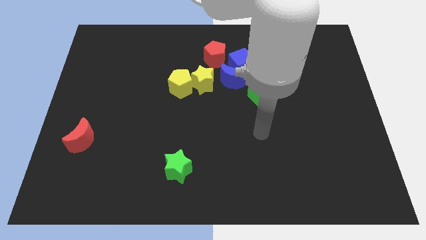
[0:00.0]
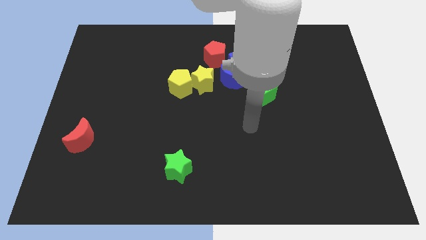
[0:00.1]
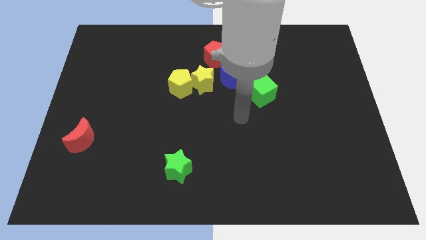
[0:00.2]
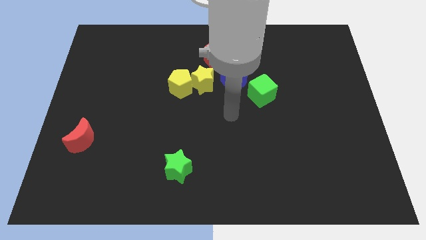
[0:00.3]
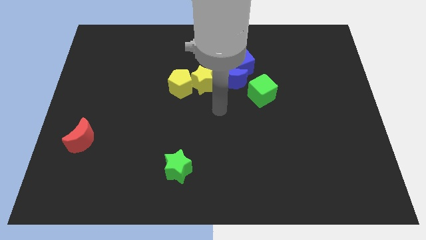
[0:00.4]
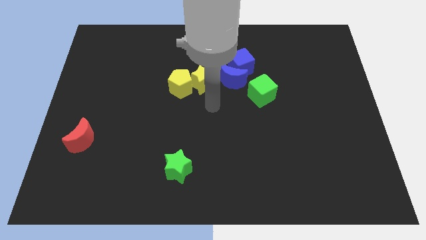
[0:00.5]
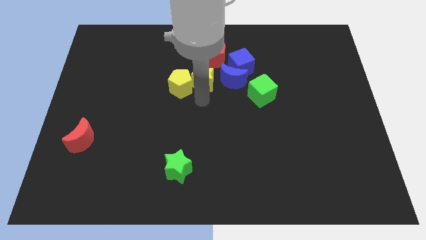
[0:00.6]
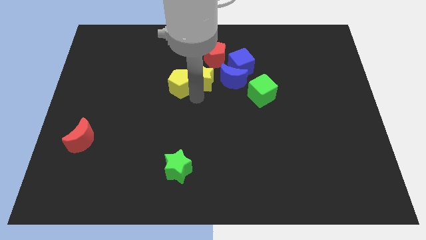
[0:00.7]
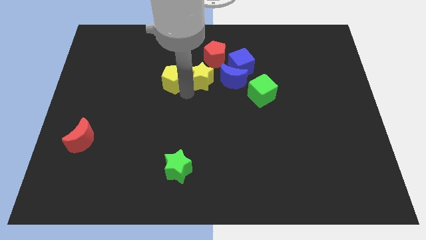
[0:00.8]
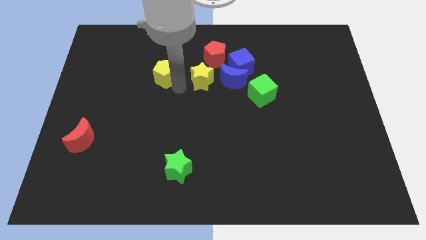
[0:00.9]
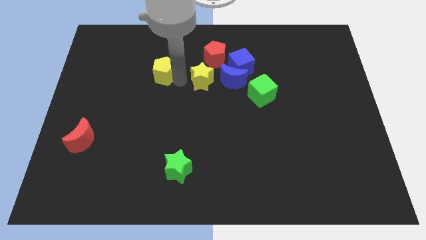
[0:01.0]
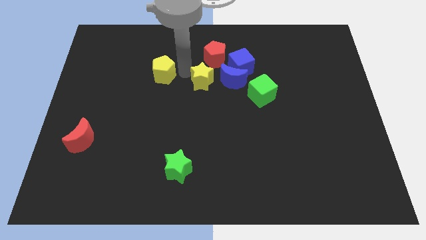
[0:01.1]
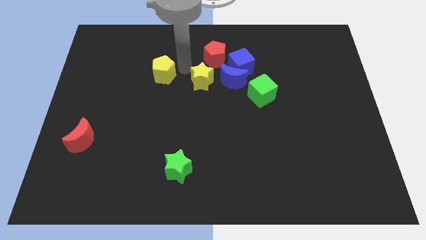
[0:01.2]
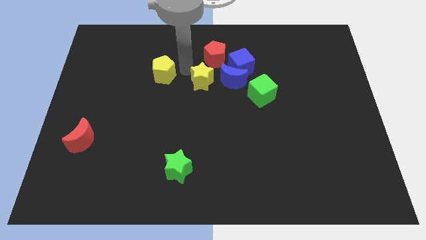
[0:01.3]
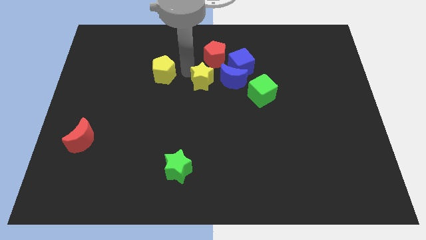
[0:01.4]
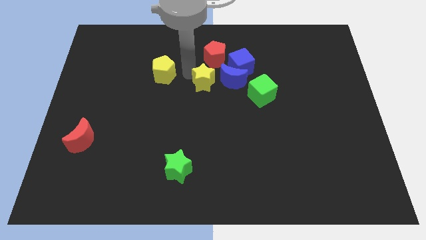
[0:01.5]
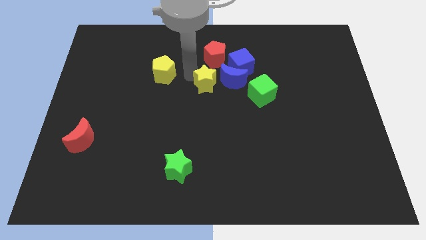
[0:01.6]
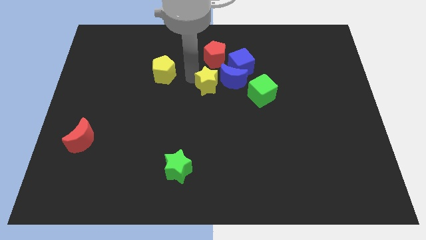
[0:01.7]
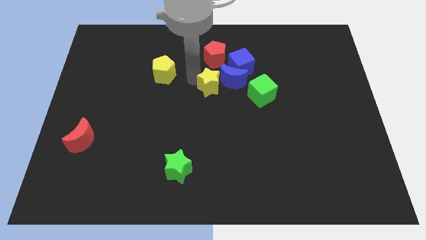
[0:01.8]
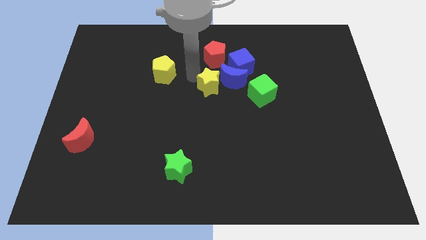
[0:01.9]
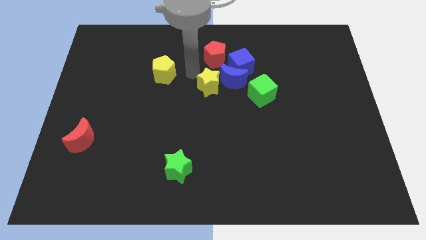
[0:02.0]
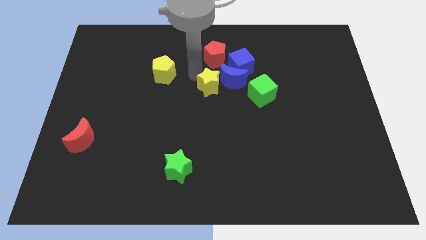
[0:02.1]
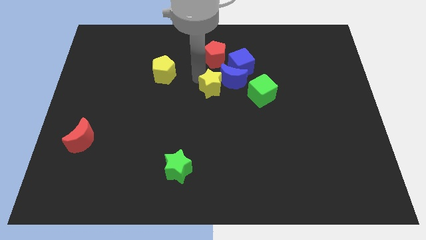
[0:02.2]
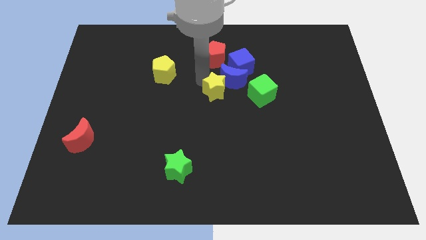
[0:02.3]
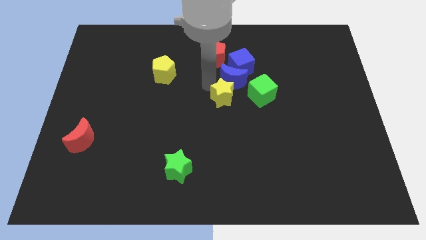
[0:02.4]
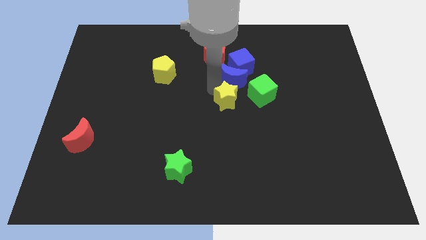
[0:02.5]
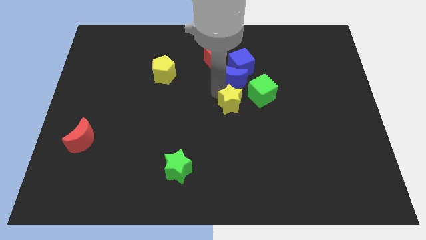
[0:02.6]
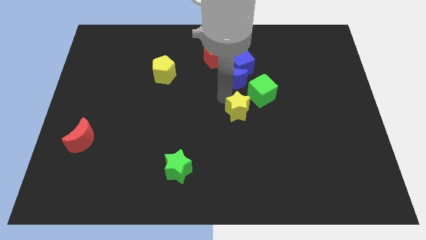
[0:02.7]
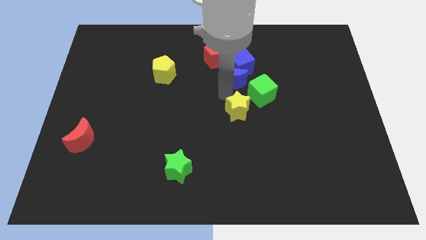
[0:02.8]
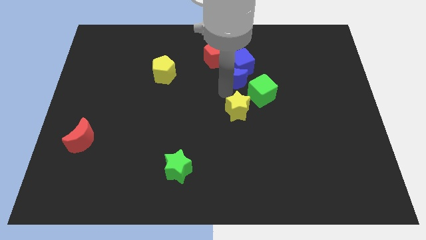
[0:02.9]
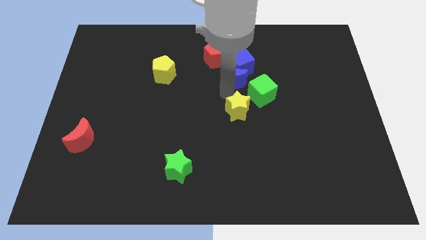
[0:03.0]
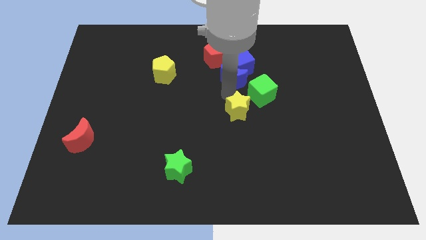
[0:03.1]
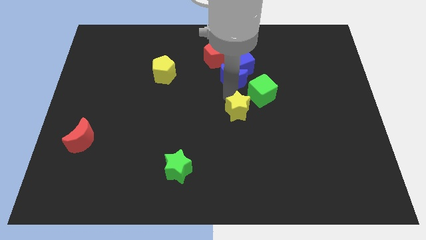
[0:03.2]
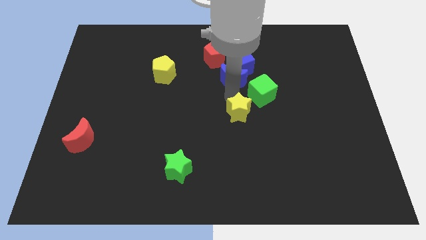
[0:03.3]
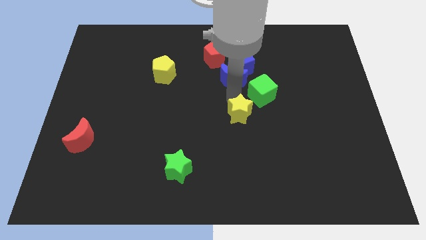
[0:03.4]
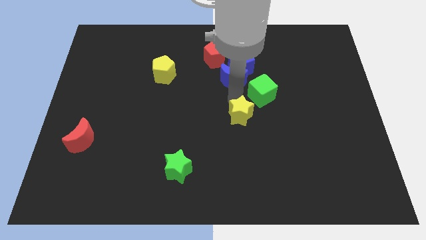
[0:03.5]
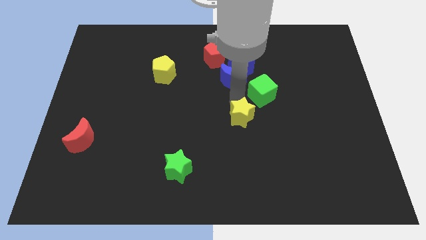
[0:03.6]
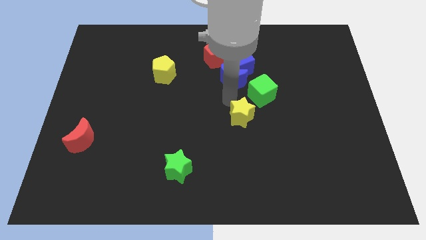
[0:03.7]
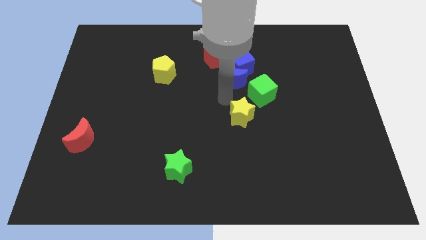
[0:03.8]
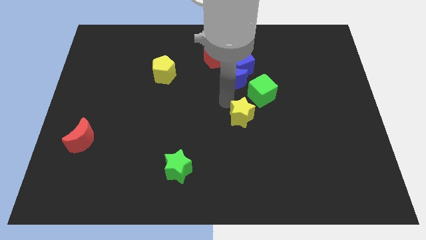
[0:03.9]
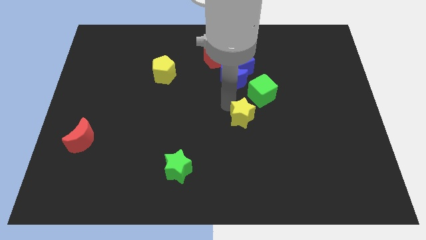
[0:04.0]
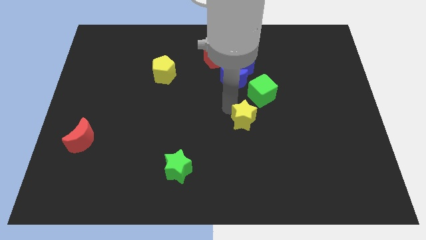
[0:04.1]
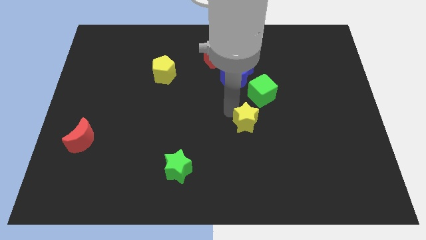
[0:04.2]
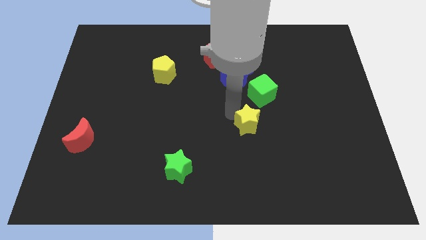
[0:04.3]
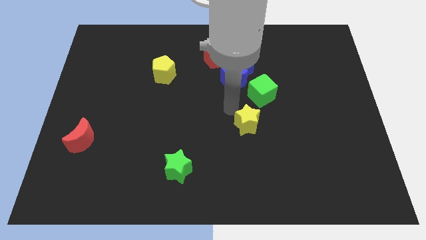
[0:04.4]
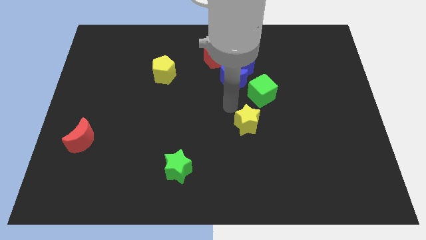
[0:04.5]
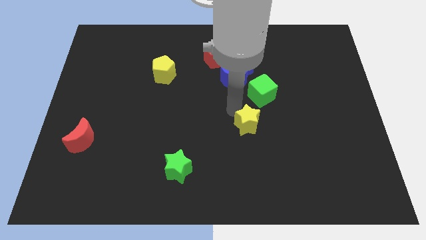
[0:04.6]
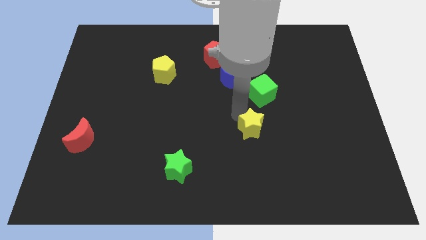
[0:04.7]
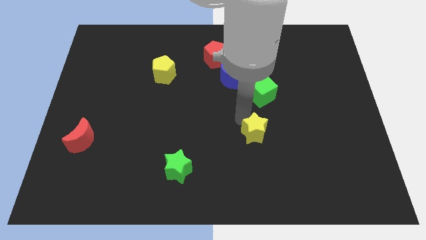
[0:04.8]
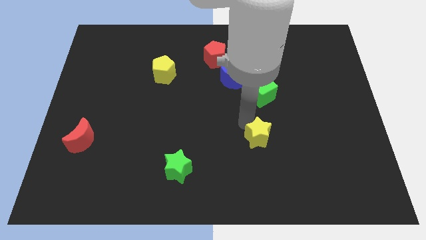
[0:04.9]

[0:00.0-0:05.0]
push the yellow star diagonally down and right

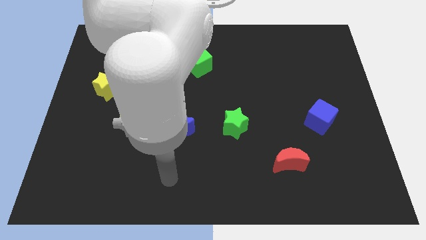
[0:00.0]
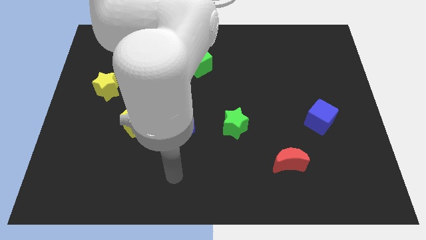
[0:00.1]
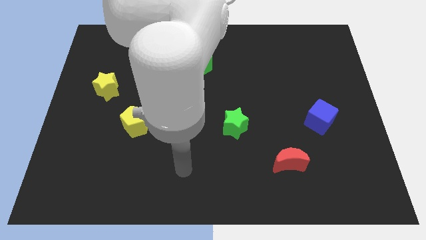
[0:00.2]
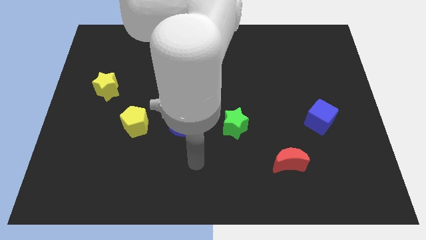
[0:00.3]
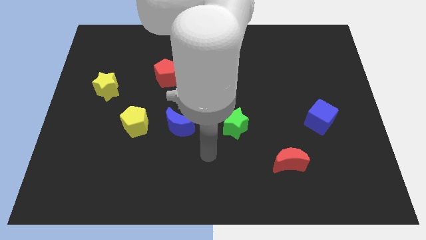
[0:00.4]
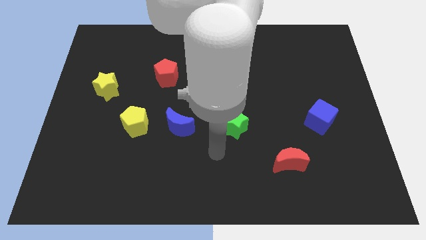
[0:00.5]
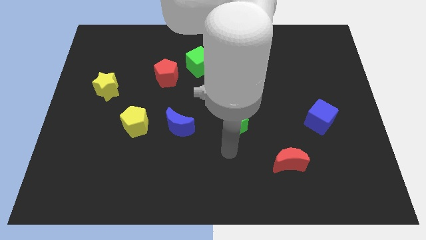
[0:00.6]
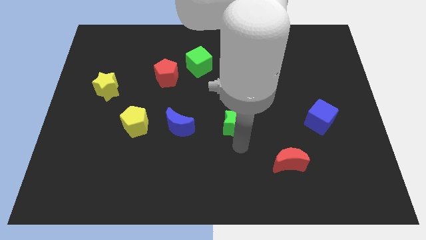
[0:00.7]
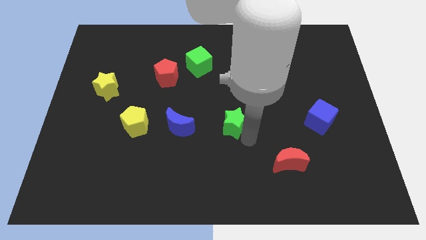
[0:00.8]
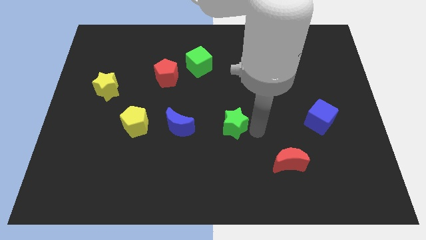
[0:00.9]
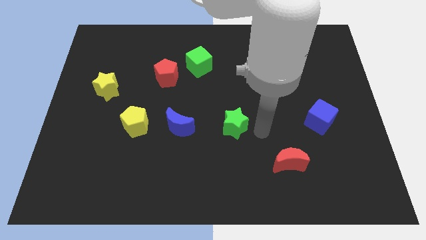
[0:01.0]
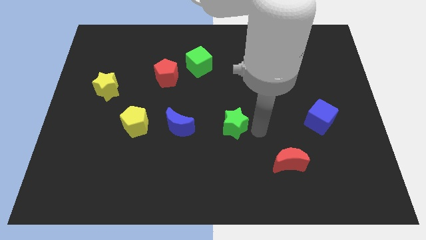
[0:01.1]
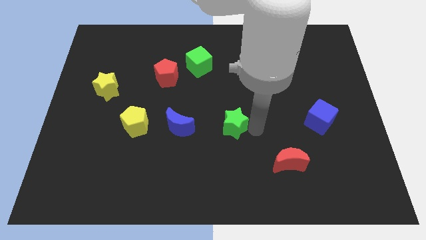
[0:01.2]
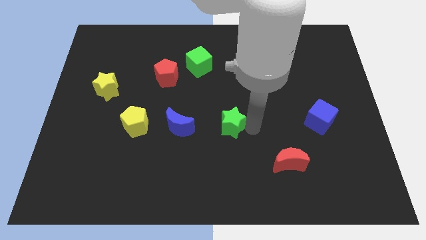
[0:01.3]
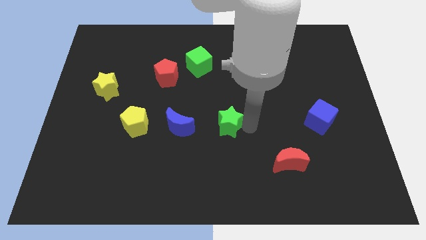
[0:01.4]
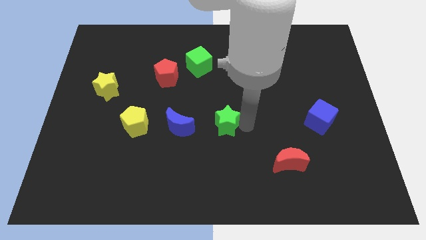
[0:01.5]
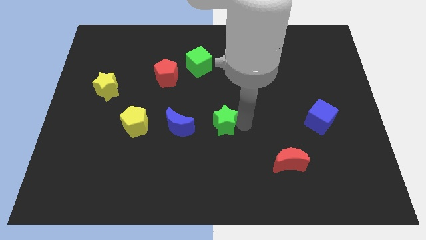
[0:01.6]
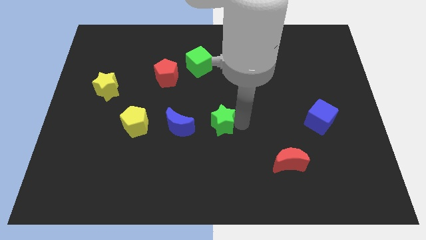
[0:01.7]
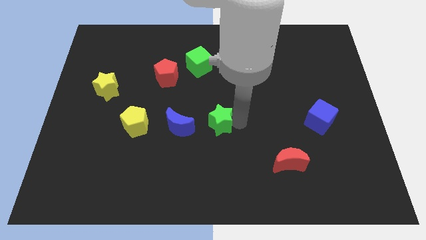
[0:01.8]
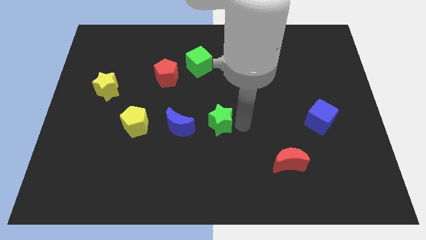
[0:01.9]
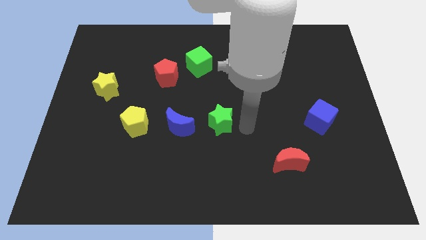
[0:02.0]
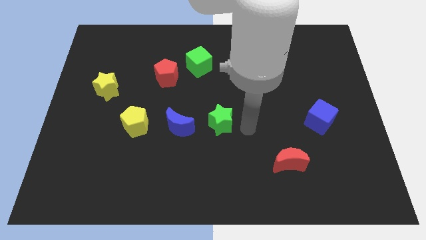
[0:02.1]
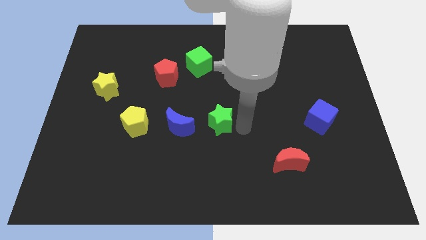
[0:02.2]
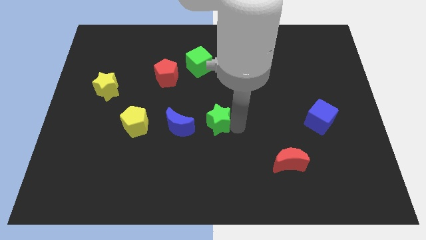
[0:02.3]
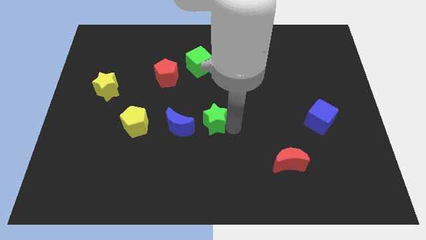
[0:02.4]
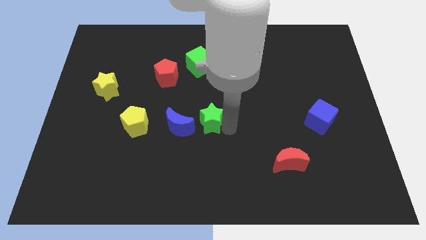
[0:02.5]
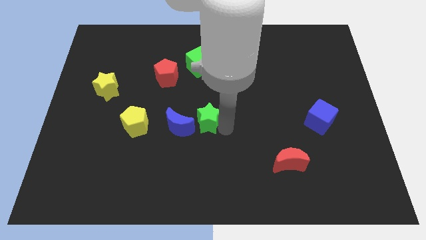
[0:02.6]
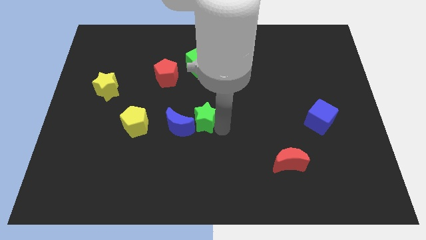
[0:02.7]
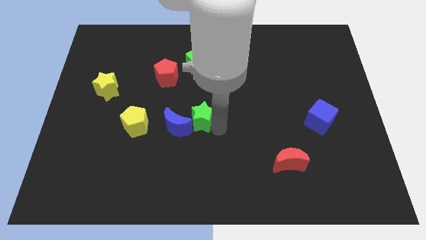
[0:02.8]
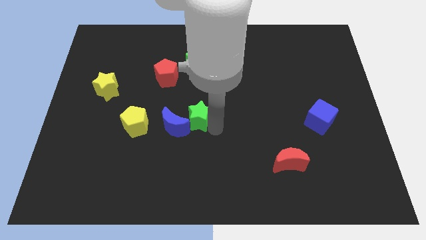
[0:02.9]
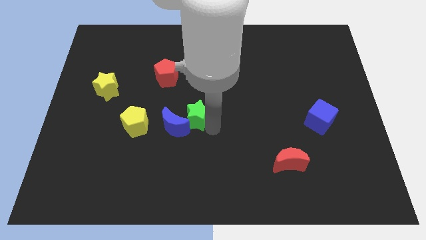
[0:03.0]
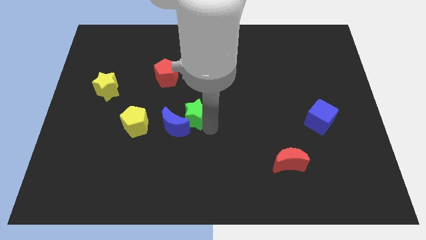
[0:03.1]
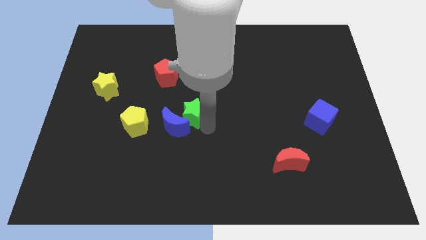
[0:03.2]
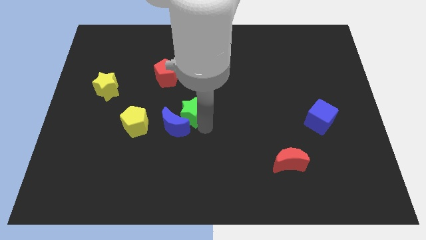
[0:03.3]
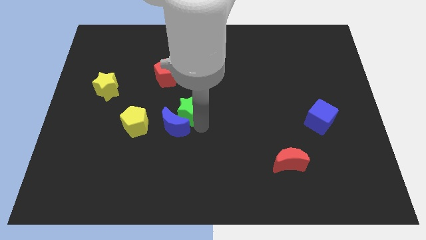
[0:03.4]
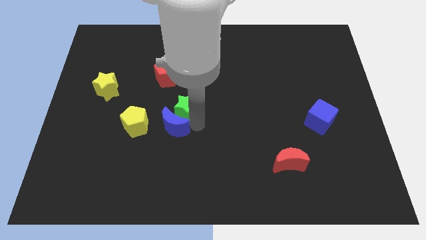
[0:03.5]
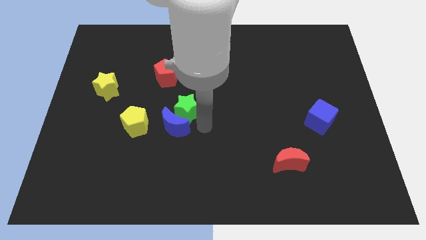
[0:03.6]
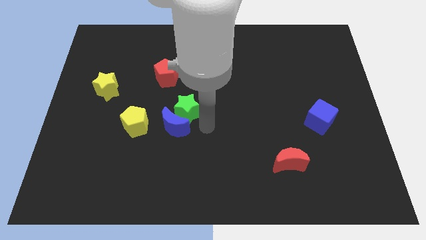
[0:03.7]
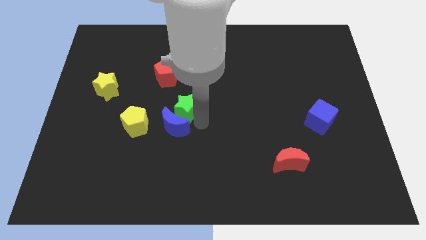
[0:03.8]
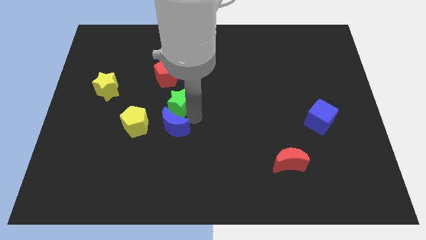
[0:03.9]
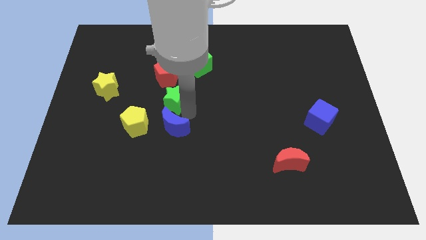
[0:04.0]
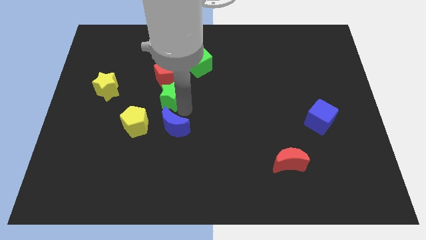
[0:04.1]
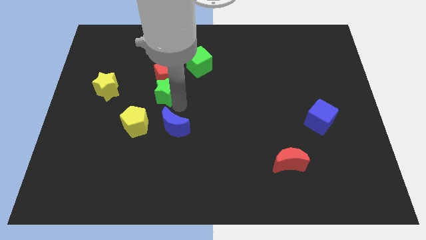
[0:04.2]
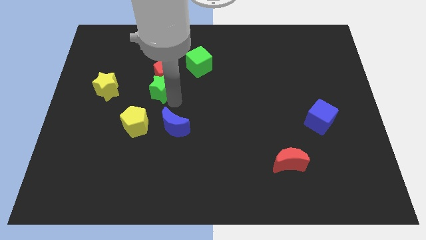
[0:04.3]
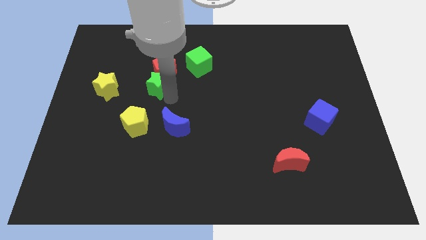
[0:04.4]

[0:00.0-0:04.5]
slide the green star upwards and left diagonally
